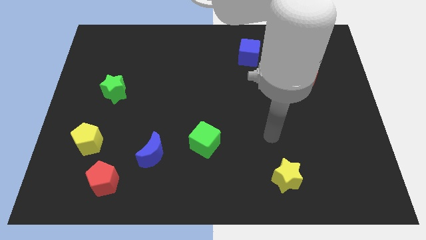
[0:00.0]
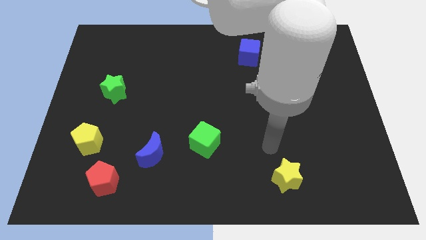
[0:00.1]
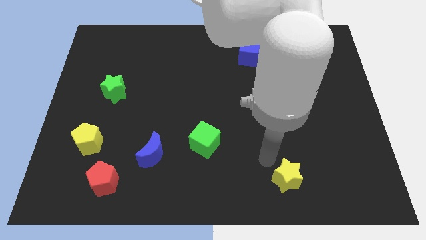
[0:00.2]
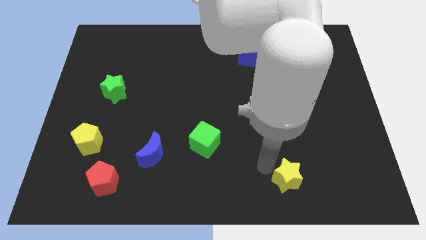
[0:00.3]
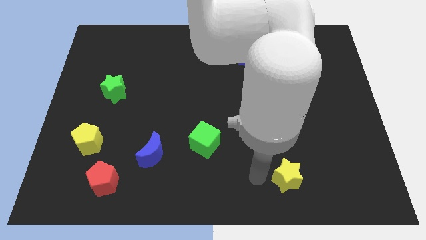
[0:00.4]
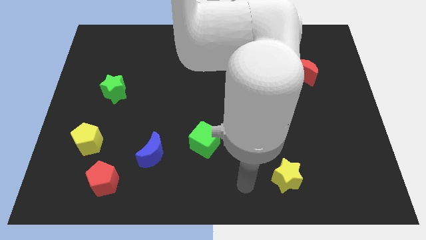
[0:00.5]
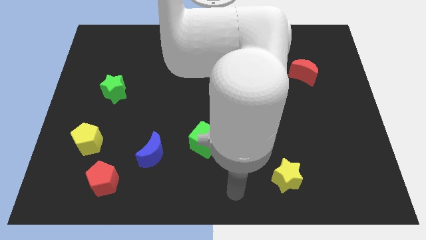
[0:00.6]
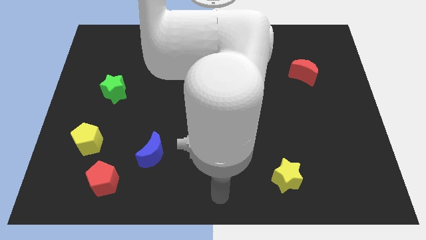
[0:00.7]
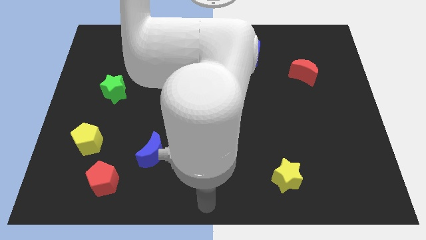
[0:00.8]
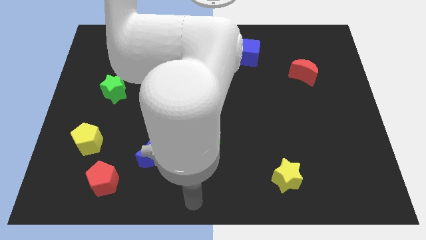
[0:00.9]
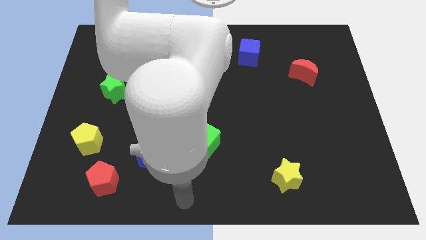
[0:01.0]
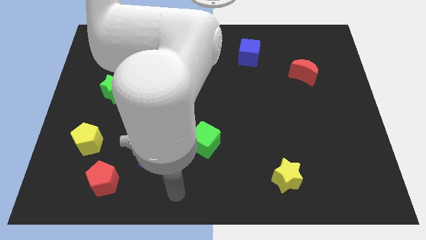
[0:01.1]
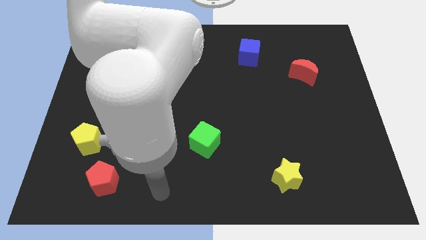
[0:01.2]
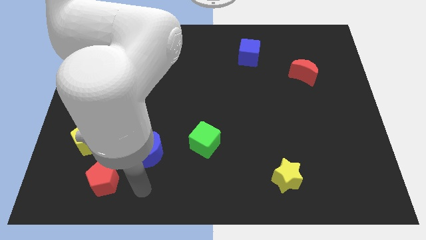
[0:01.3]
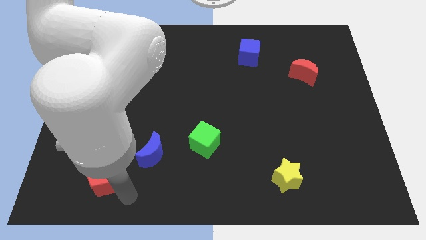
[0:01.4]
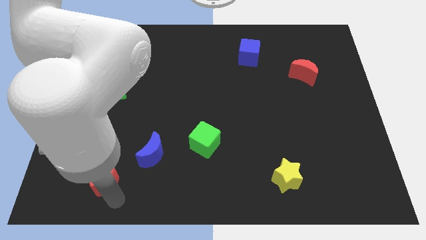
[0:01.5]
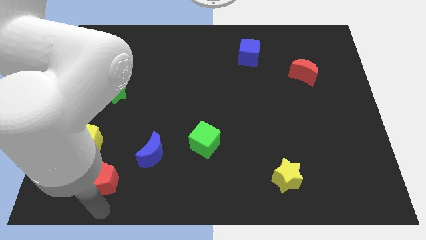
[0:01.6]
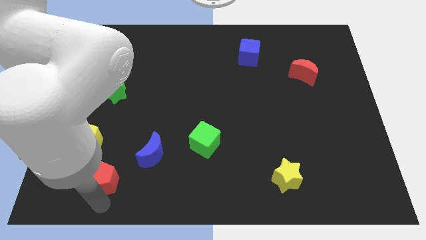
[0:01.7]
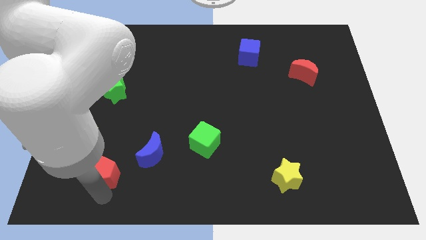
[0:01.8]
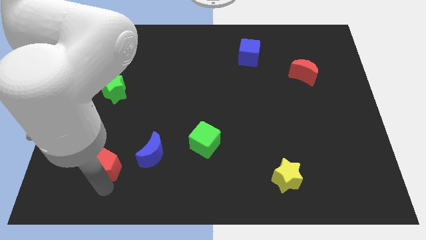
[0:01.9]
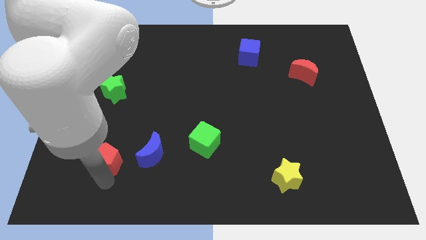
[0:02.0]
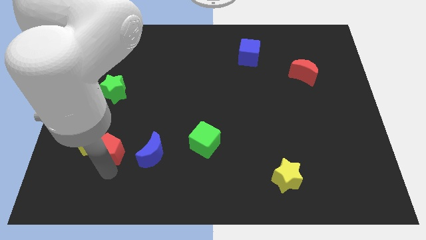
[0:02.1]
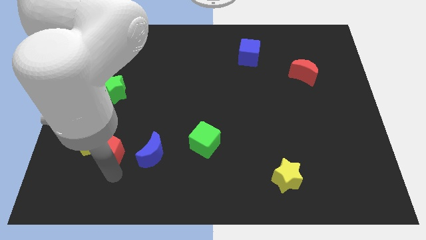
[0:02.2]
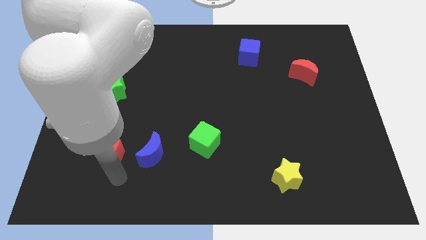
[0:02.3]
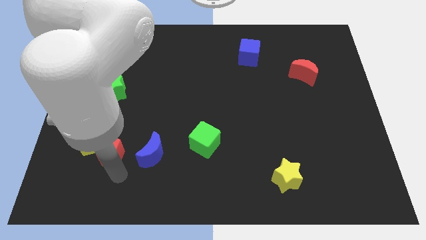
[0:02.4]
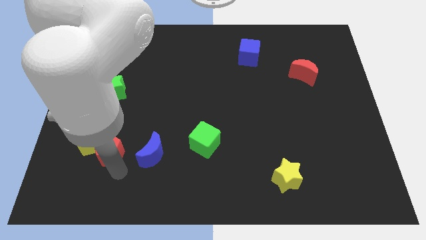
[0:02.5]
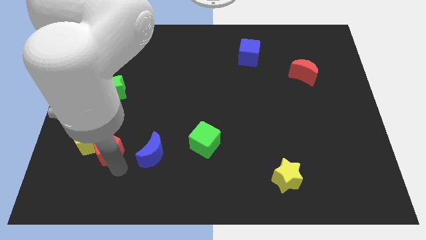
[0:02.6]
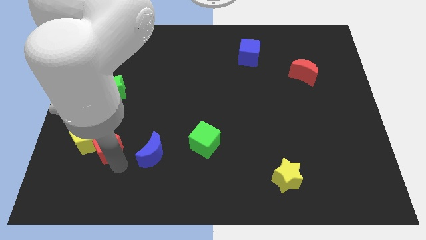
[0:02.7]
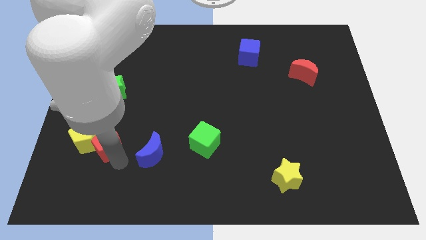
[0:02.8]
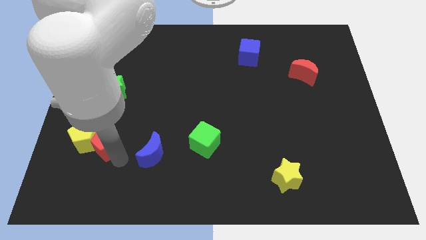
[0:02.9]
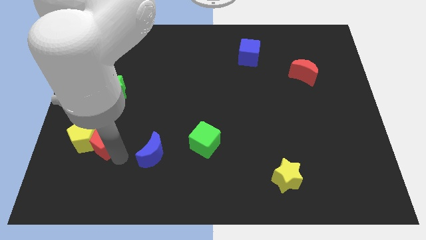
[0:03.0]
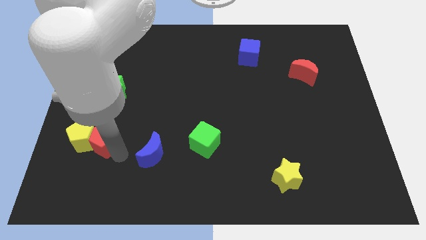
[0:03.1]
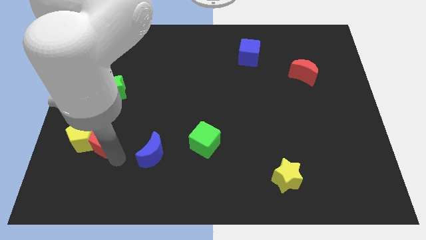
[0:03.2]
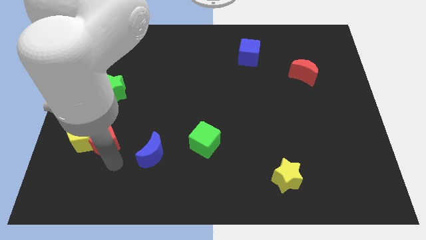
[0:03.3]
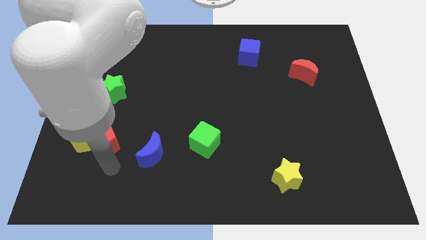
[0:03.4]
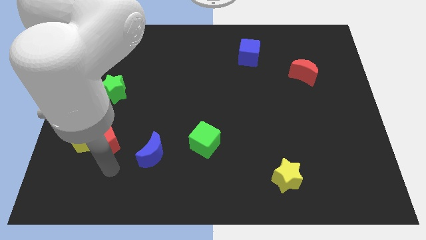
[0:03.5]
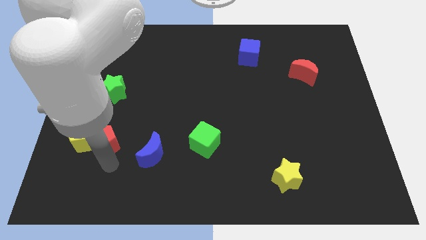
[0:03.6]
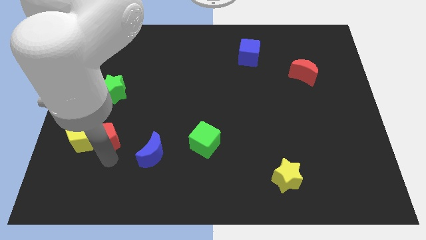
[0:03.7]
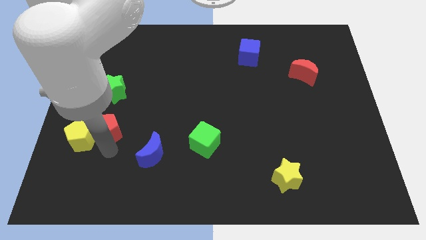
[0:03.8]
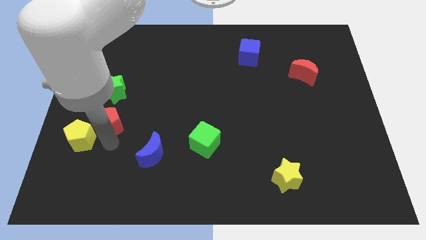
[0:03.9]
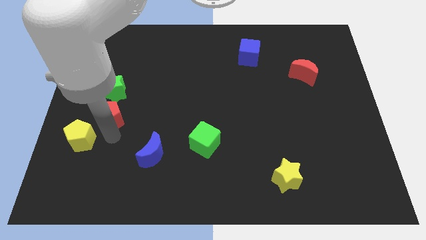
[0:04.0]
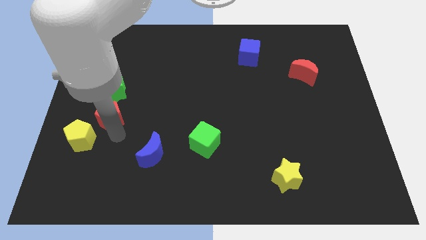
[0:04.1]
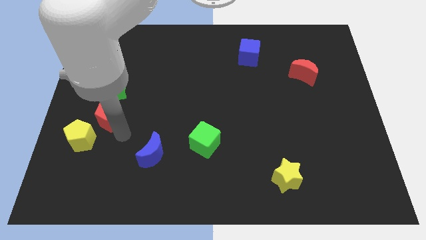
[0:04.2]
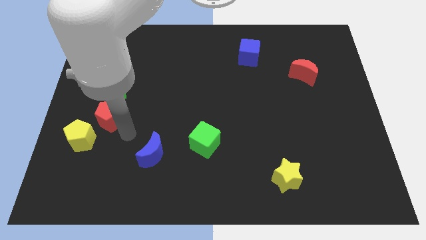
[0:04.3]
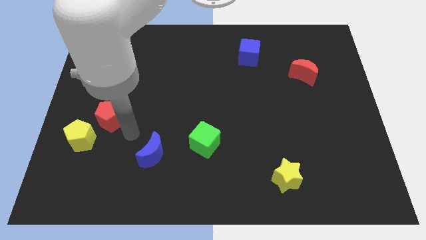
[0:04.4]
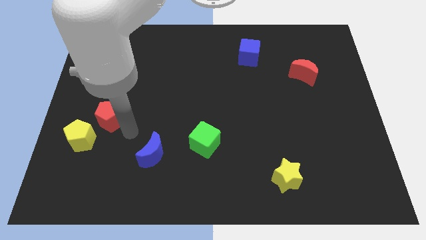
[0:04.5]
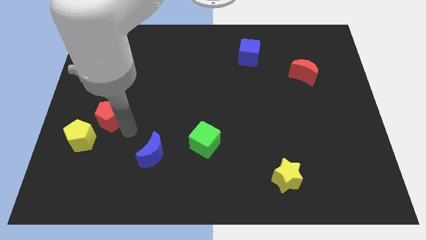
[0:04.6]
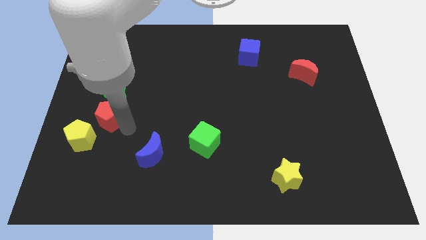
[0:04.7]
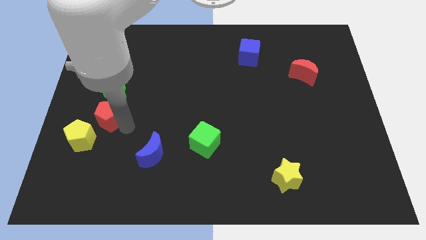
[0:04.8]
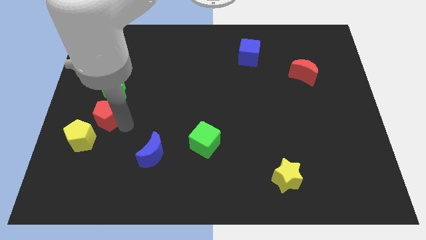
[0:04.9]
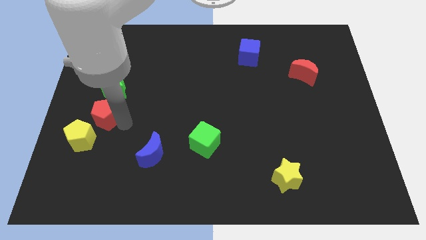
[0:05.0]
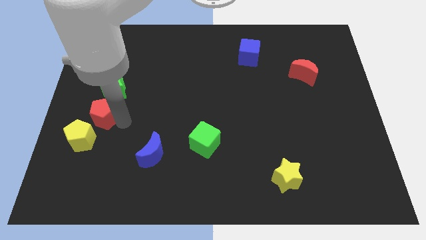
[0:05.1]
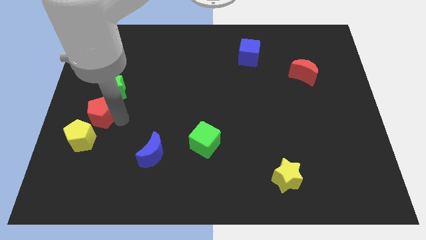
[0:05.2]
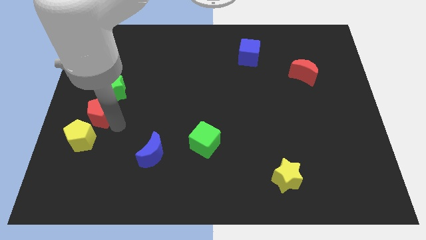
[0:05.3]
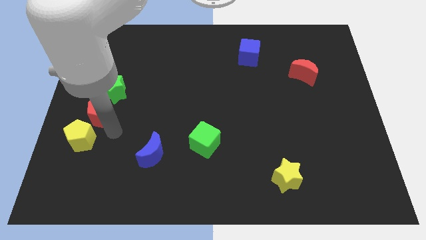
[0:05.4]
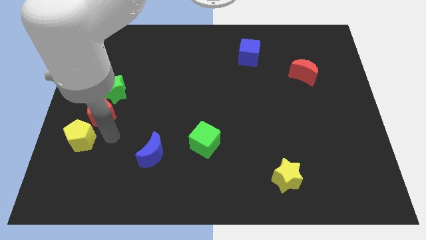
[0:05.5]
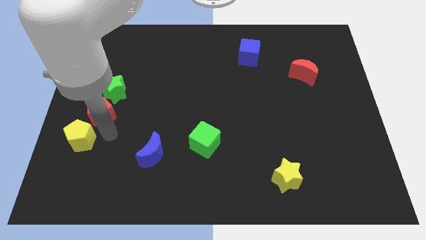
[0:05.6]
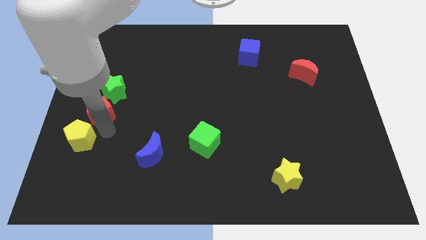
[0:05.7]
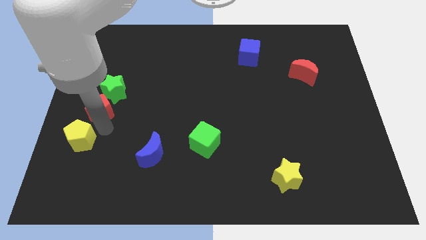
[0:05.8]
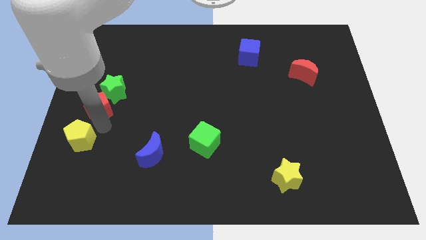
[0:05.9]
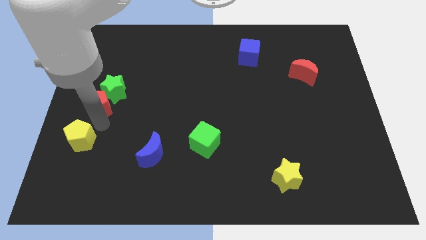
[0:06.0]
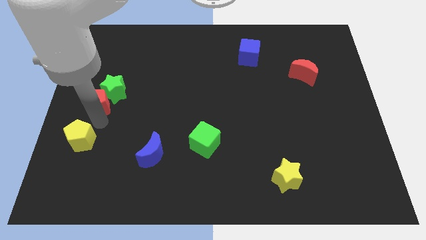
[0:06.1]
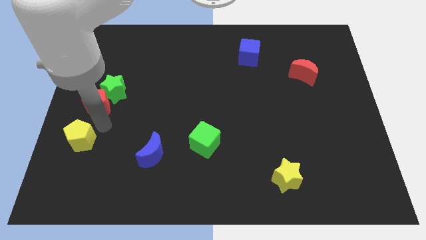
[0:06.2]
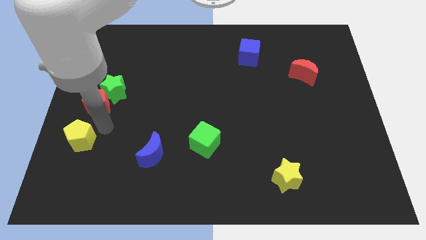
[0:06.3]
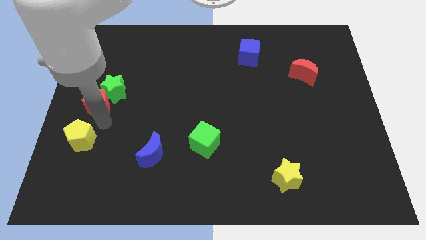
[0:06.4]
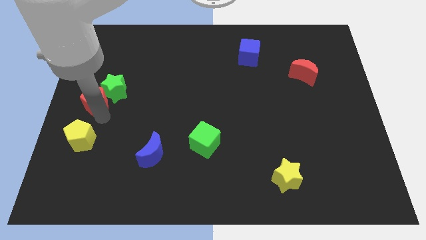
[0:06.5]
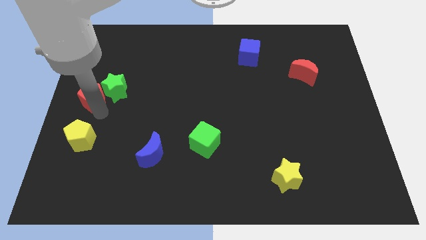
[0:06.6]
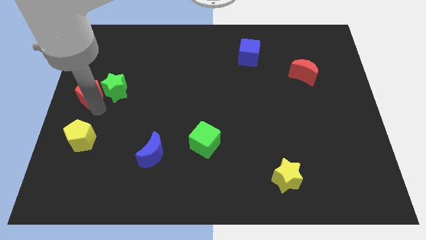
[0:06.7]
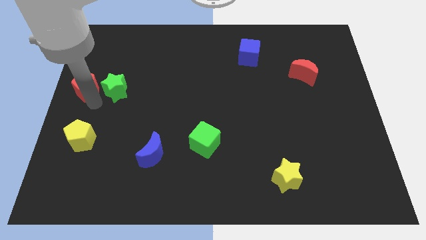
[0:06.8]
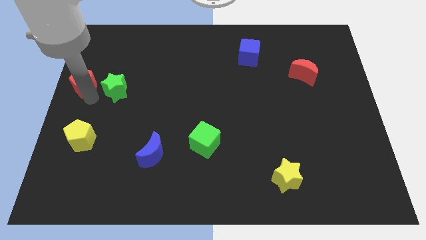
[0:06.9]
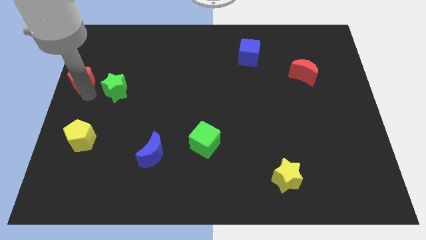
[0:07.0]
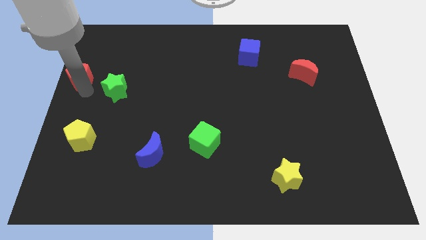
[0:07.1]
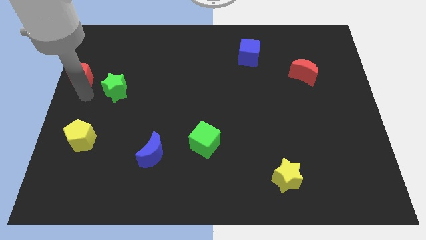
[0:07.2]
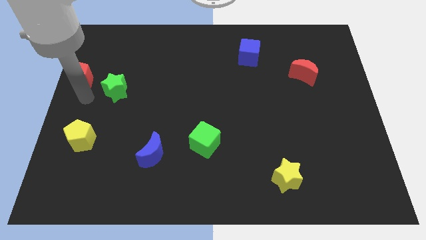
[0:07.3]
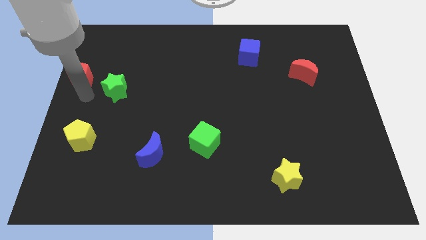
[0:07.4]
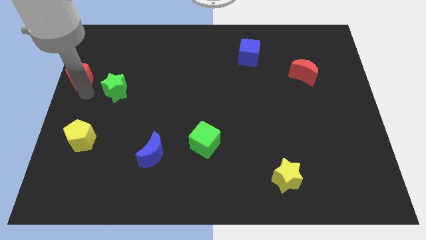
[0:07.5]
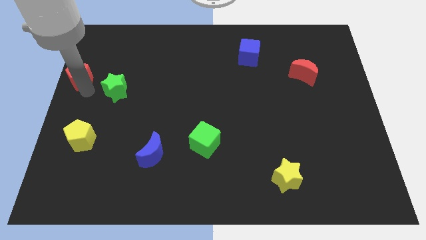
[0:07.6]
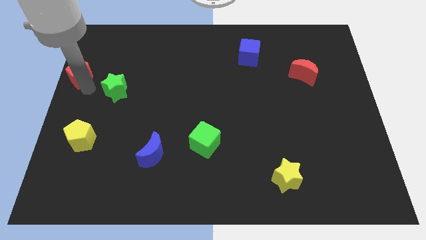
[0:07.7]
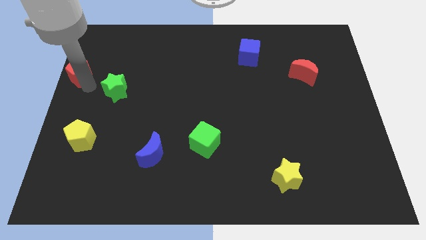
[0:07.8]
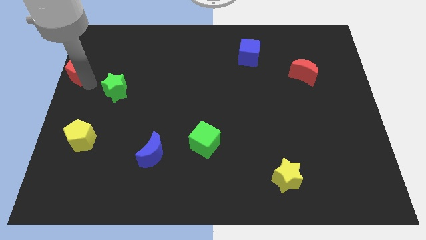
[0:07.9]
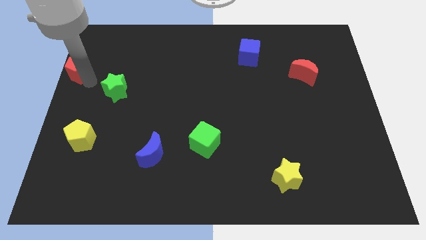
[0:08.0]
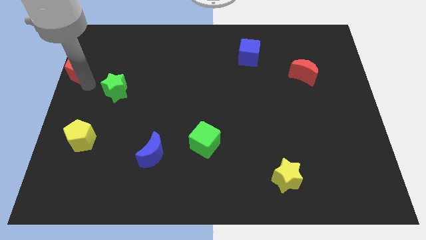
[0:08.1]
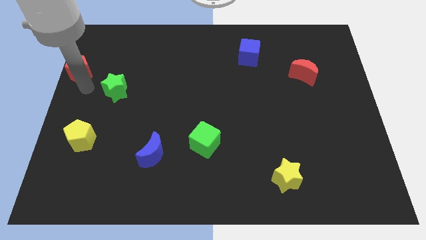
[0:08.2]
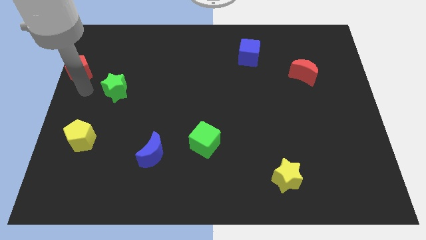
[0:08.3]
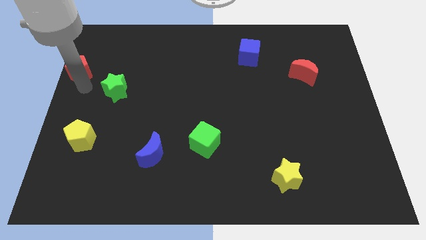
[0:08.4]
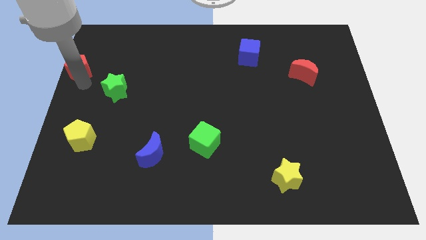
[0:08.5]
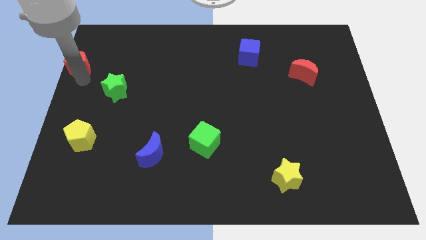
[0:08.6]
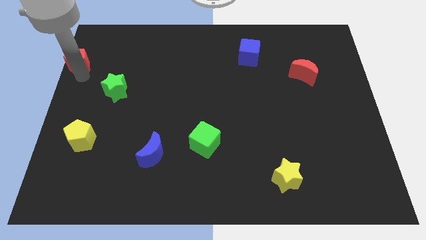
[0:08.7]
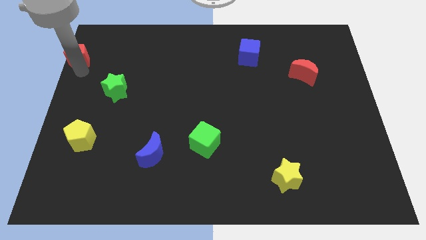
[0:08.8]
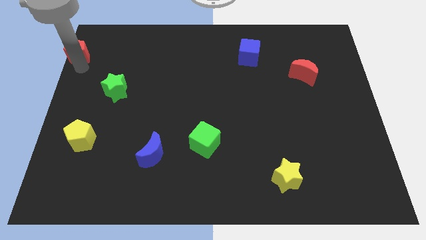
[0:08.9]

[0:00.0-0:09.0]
slide the red pentagon to the top left
